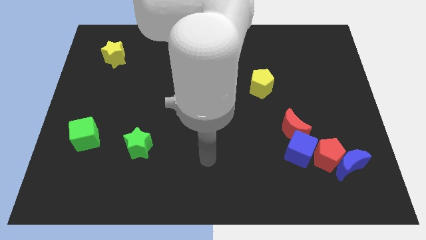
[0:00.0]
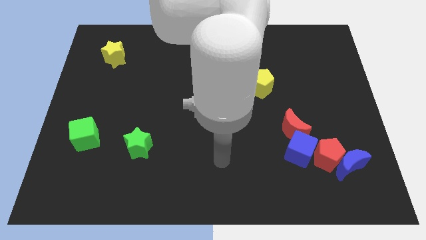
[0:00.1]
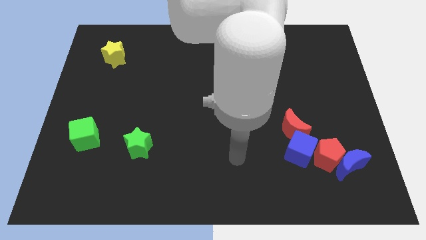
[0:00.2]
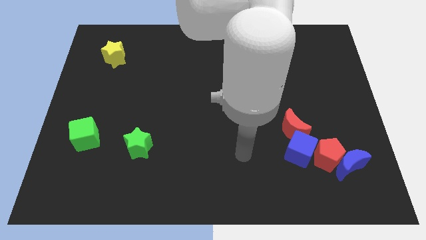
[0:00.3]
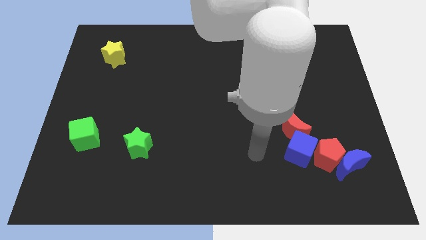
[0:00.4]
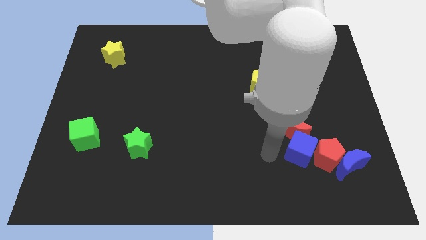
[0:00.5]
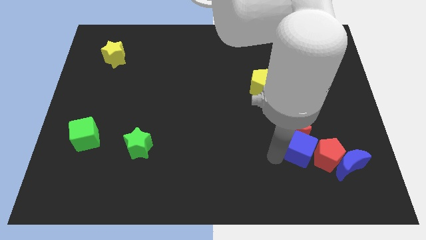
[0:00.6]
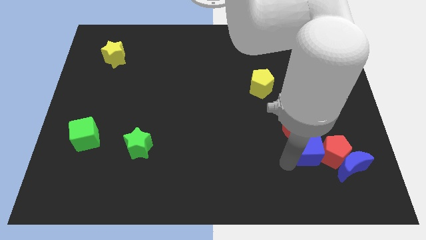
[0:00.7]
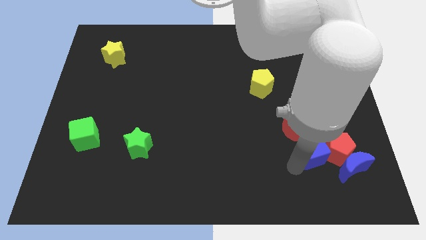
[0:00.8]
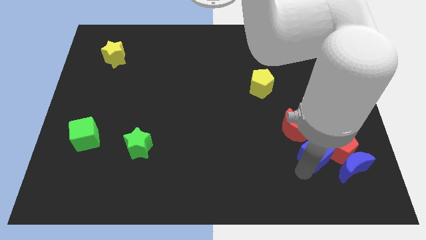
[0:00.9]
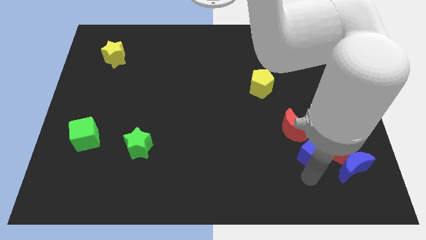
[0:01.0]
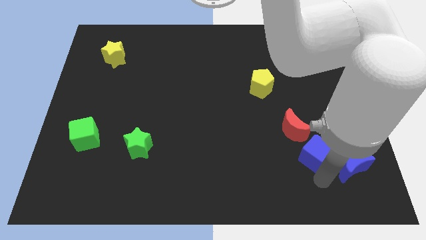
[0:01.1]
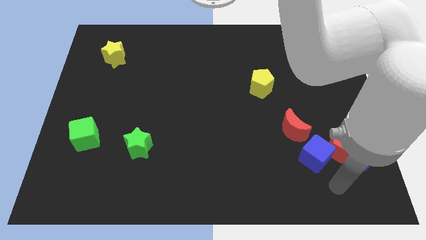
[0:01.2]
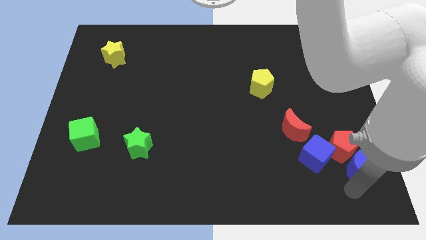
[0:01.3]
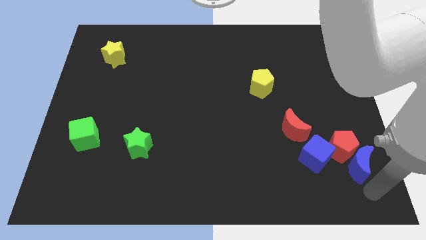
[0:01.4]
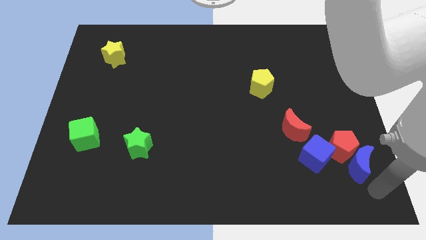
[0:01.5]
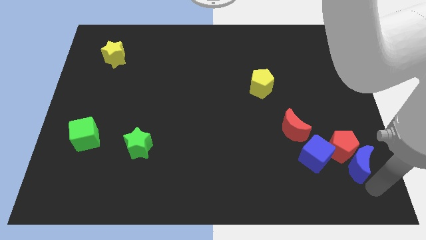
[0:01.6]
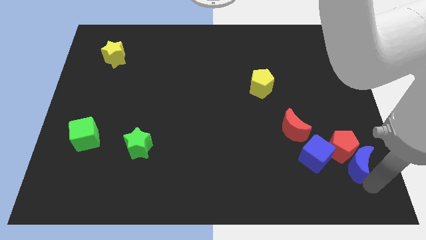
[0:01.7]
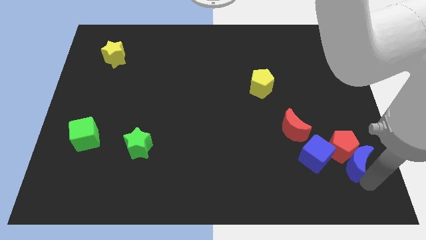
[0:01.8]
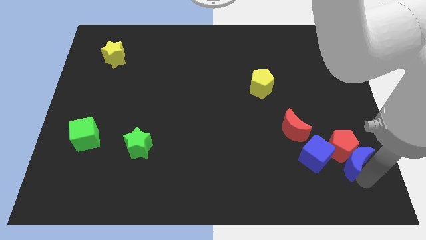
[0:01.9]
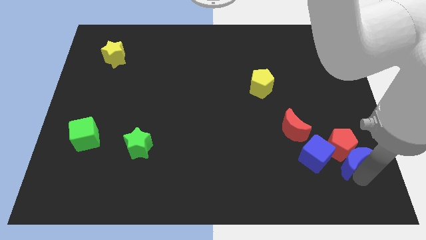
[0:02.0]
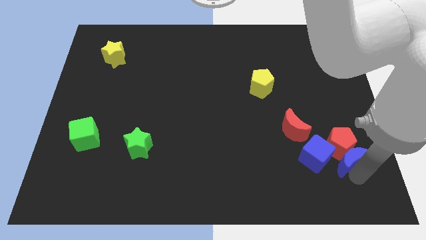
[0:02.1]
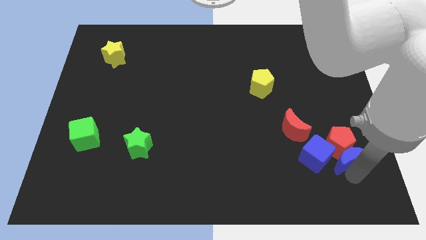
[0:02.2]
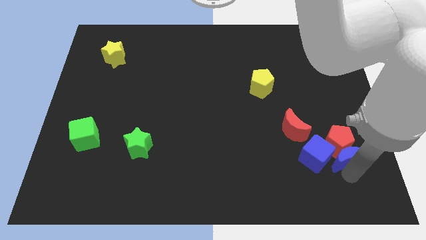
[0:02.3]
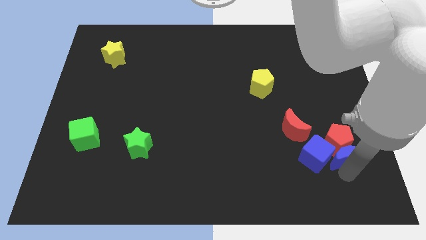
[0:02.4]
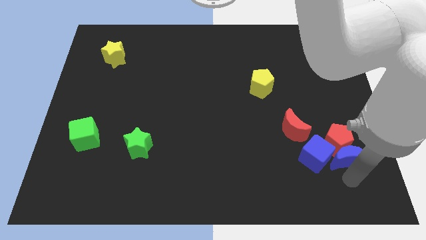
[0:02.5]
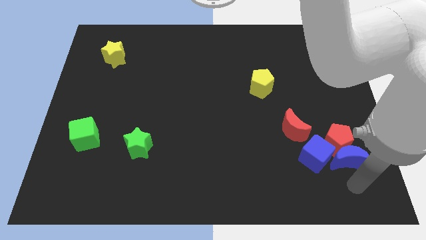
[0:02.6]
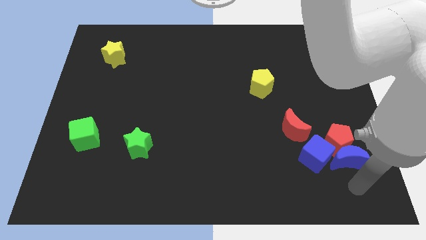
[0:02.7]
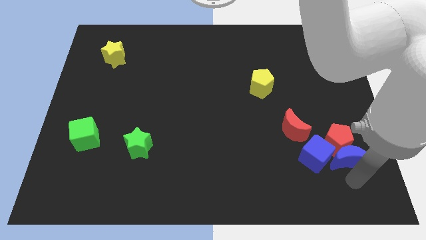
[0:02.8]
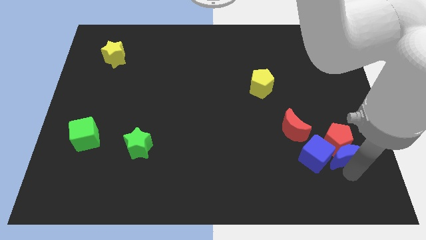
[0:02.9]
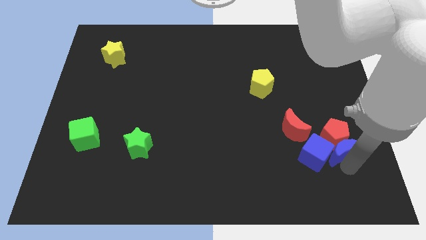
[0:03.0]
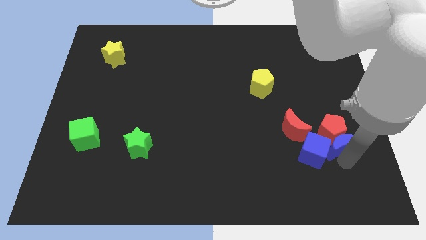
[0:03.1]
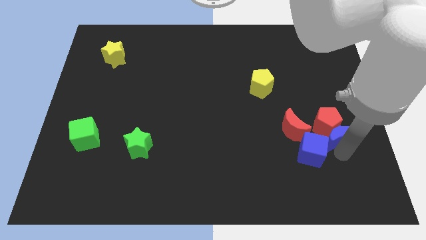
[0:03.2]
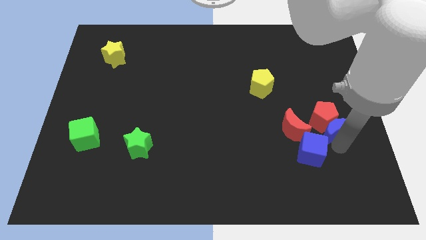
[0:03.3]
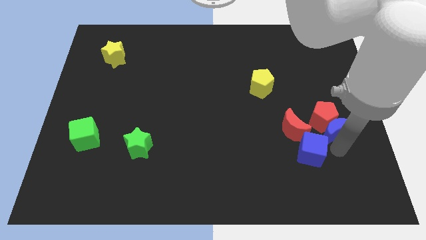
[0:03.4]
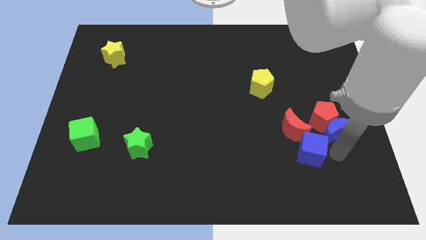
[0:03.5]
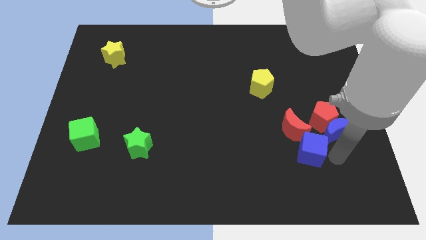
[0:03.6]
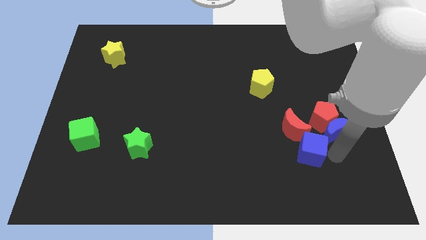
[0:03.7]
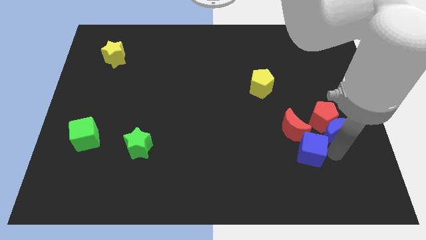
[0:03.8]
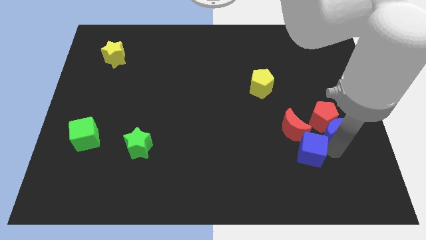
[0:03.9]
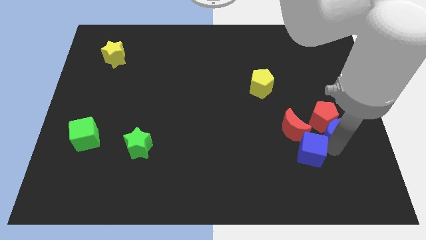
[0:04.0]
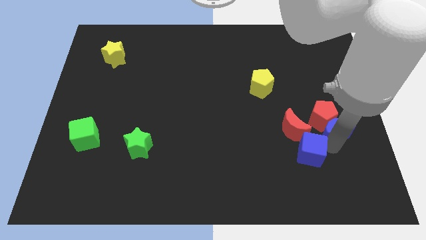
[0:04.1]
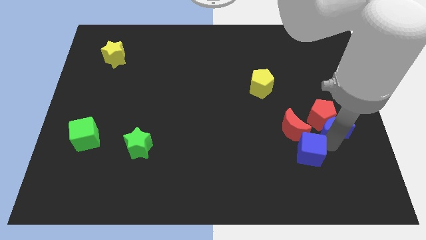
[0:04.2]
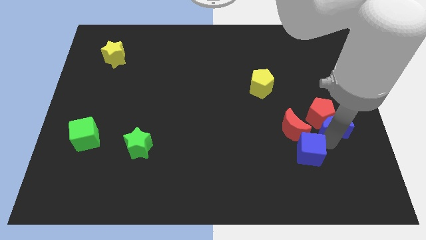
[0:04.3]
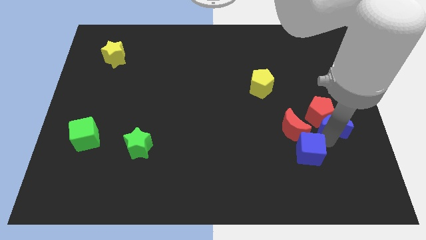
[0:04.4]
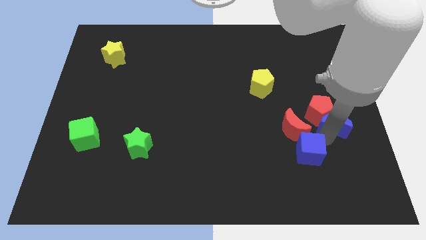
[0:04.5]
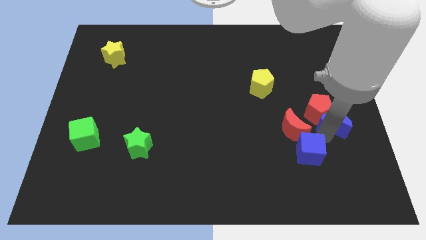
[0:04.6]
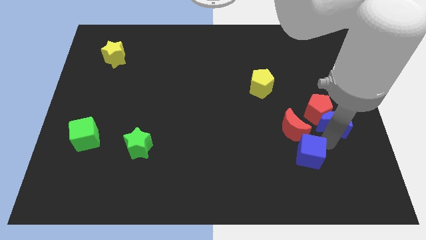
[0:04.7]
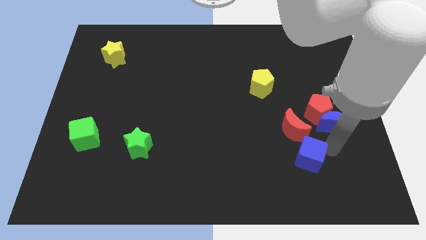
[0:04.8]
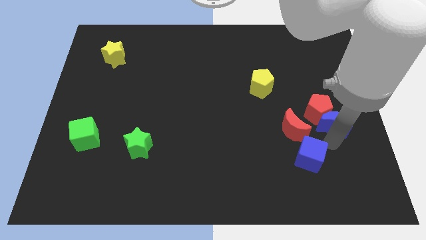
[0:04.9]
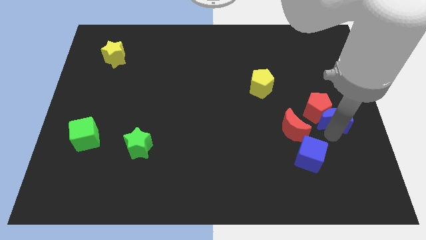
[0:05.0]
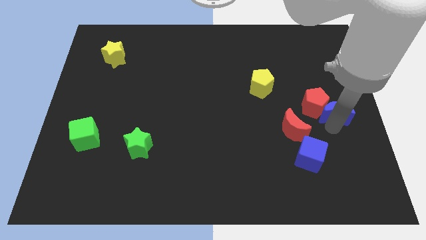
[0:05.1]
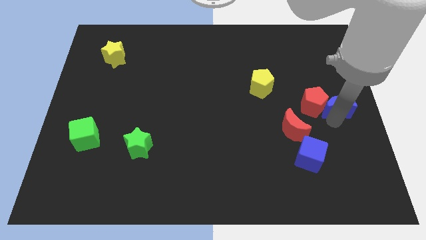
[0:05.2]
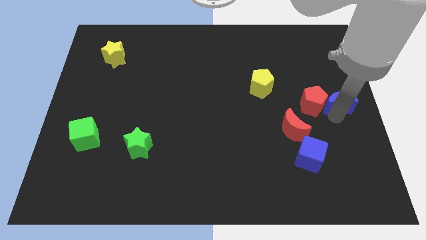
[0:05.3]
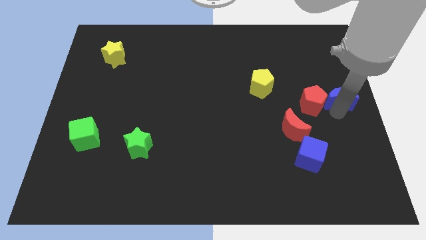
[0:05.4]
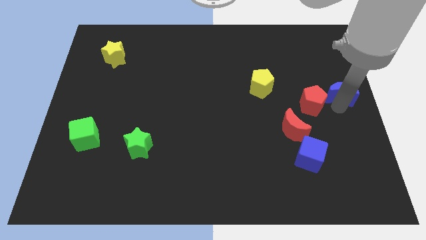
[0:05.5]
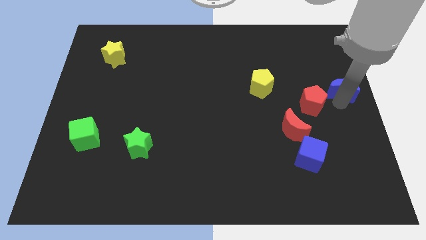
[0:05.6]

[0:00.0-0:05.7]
move the blue moon up

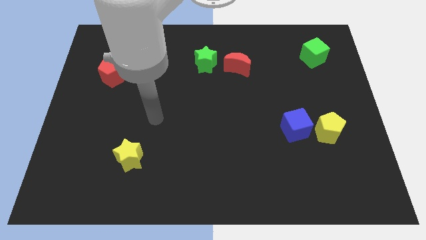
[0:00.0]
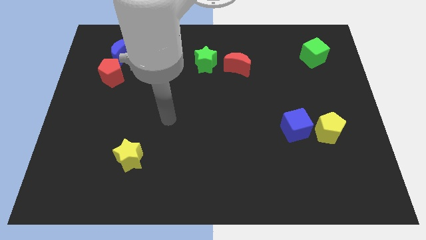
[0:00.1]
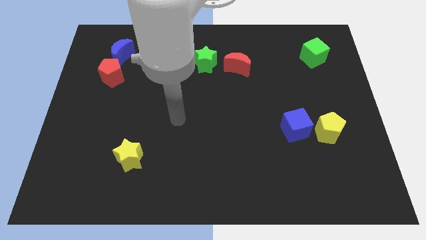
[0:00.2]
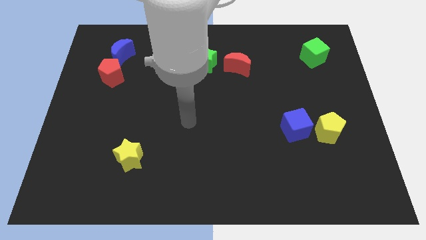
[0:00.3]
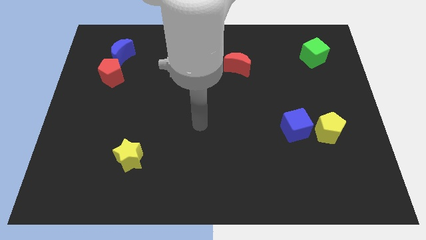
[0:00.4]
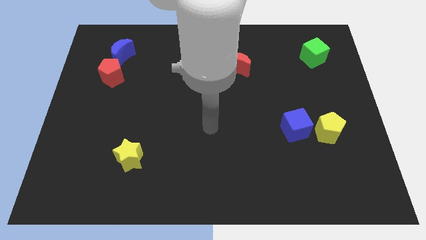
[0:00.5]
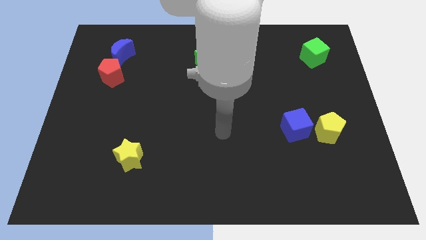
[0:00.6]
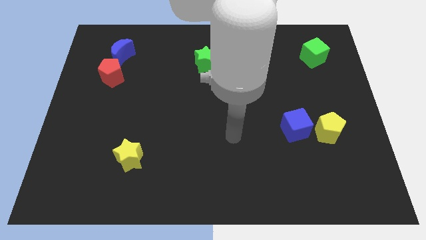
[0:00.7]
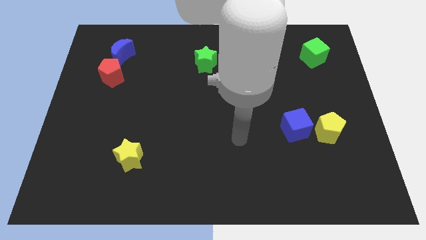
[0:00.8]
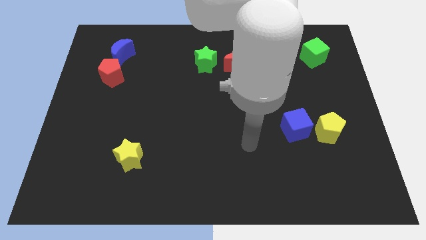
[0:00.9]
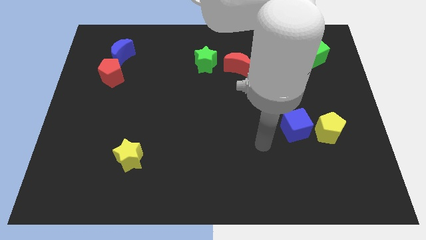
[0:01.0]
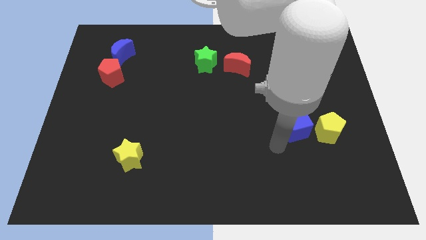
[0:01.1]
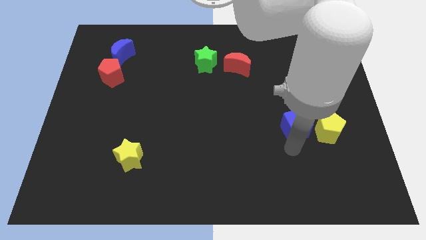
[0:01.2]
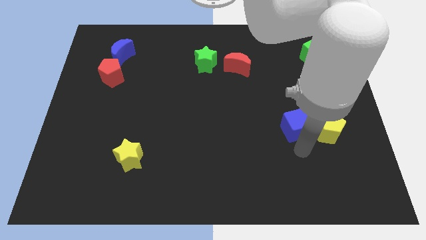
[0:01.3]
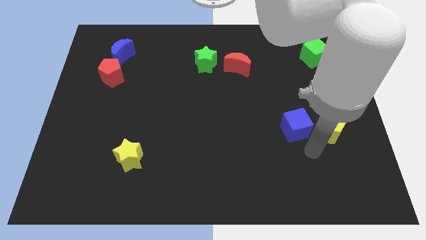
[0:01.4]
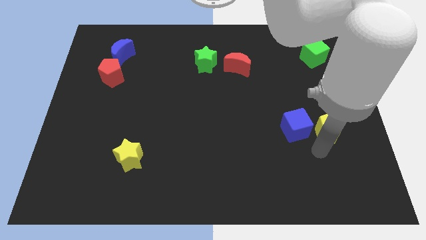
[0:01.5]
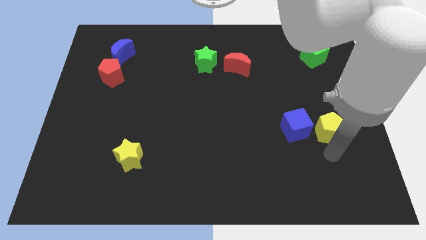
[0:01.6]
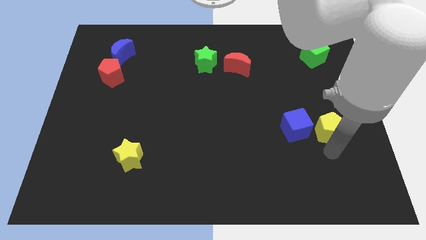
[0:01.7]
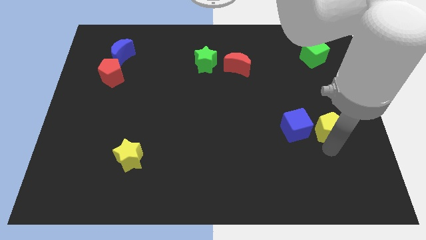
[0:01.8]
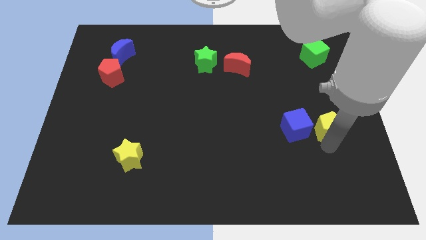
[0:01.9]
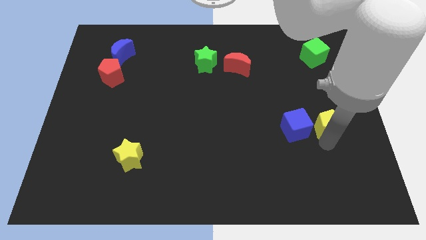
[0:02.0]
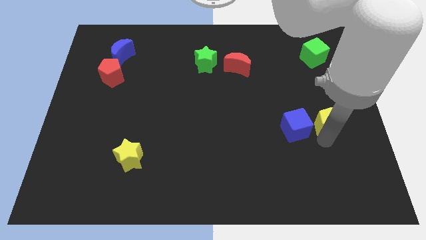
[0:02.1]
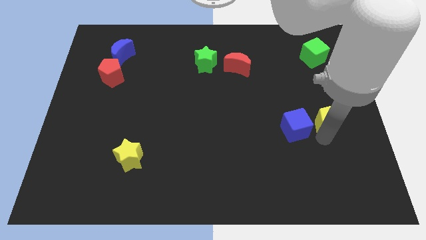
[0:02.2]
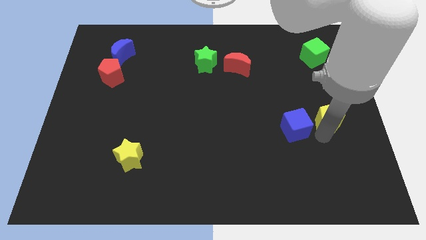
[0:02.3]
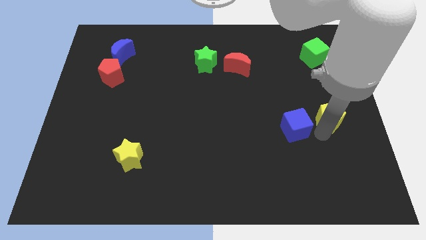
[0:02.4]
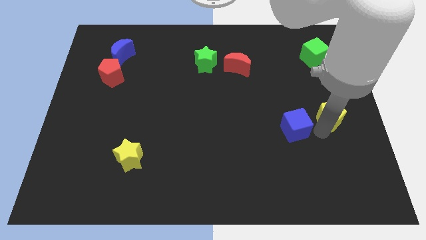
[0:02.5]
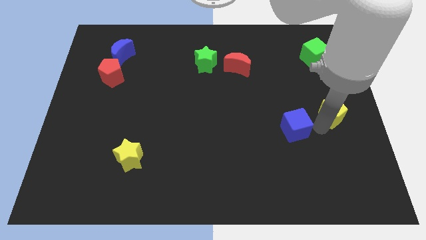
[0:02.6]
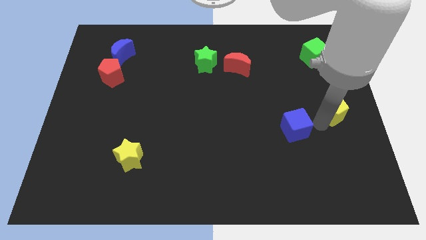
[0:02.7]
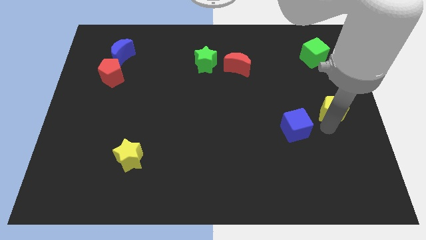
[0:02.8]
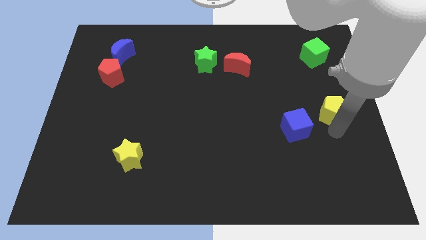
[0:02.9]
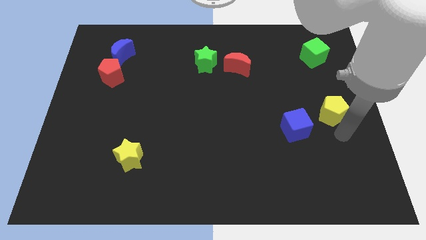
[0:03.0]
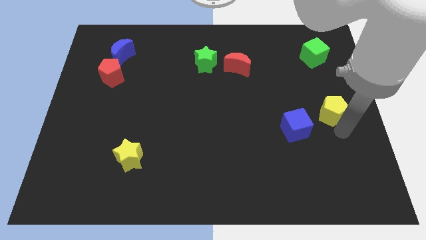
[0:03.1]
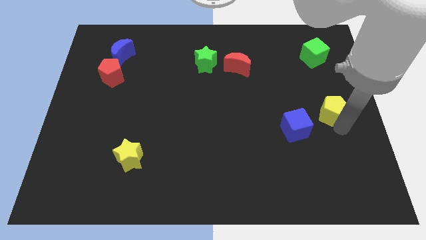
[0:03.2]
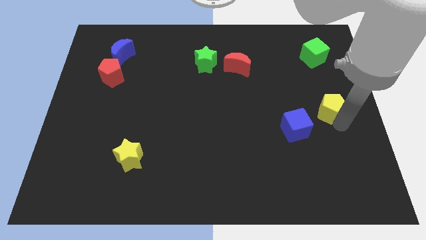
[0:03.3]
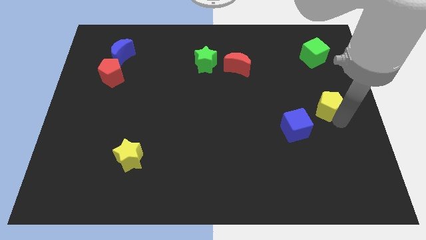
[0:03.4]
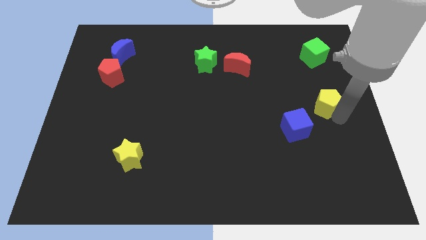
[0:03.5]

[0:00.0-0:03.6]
slide the yellow pentagon a little upwards
